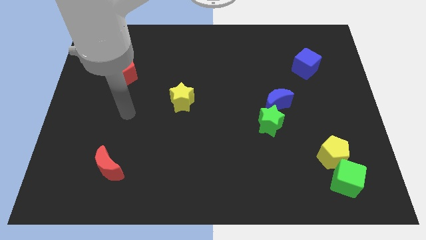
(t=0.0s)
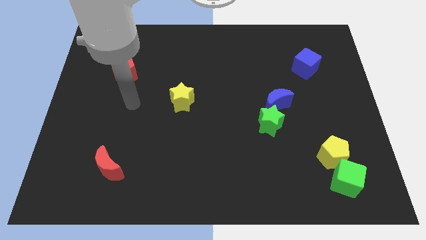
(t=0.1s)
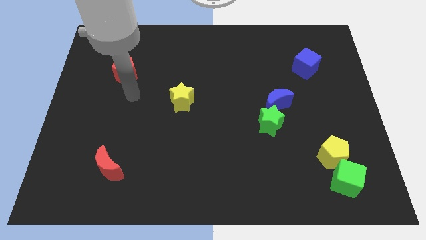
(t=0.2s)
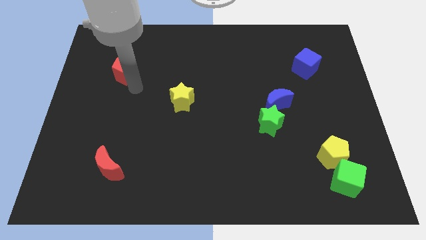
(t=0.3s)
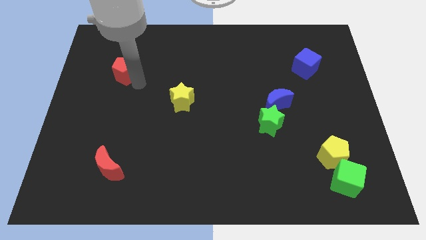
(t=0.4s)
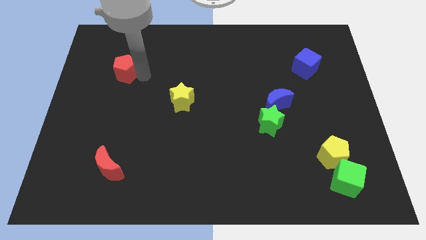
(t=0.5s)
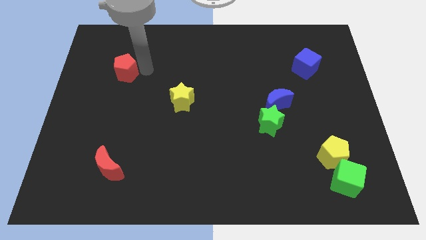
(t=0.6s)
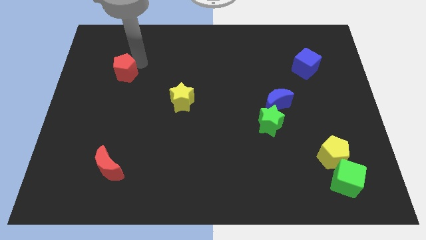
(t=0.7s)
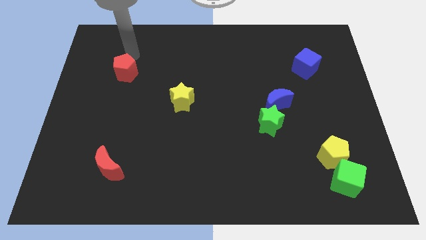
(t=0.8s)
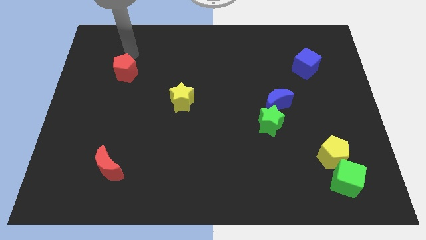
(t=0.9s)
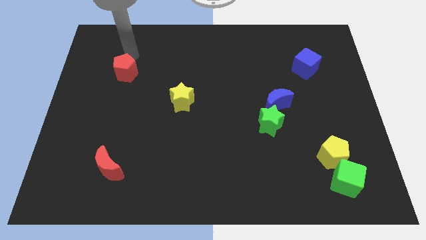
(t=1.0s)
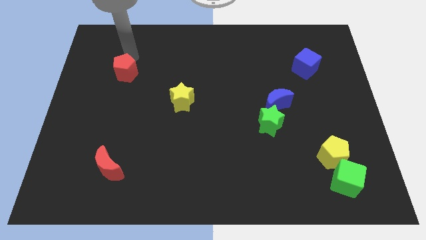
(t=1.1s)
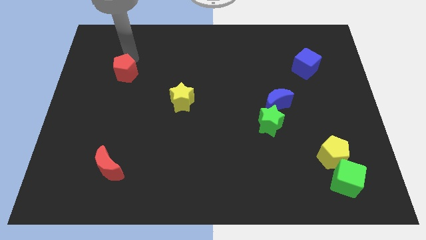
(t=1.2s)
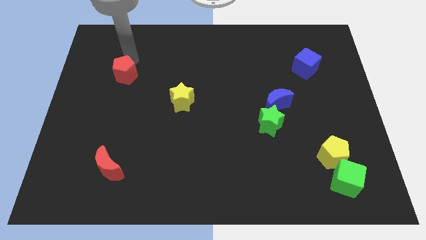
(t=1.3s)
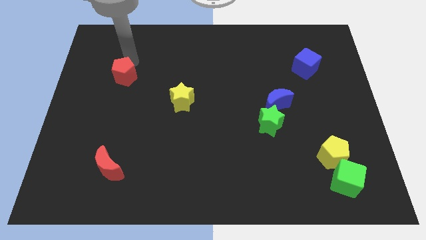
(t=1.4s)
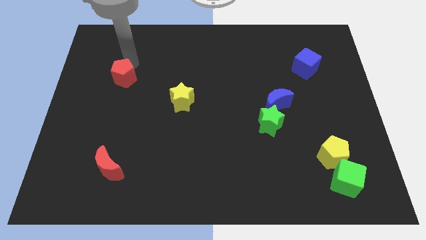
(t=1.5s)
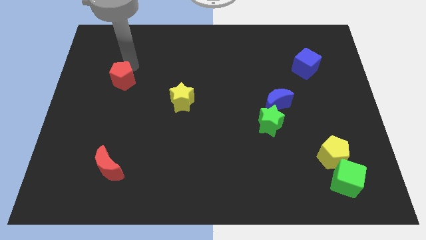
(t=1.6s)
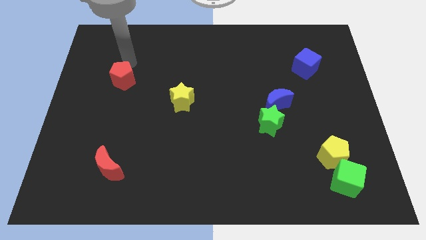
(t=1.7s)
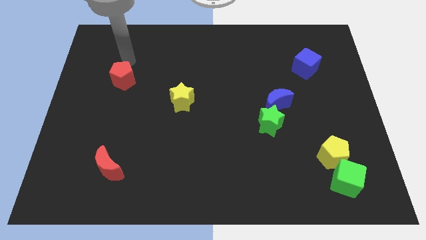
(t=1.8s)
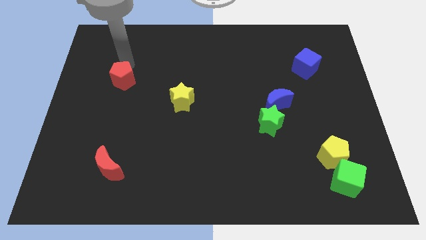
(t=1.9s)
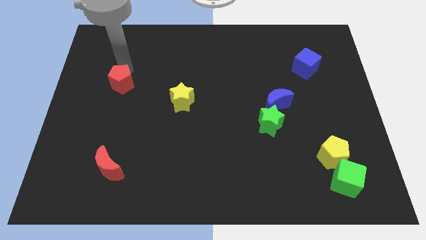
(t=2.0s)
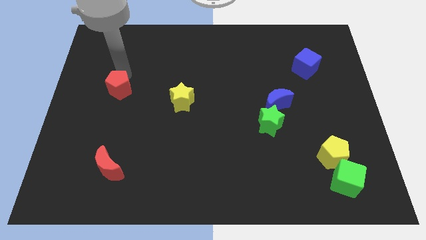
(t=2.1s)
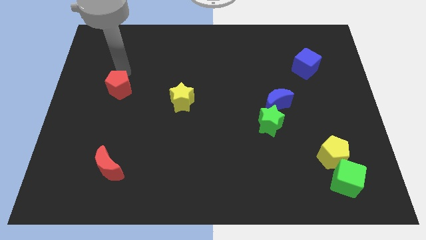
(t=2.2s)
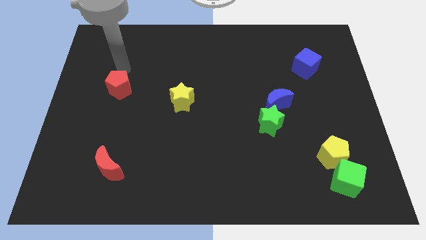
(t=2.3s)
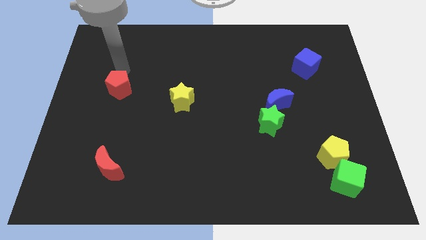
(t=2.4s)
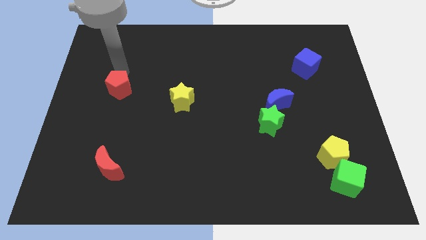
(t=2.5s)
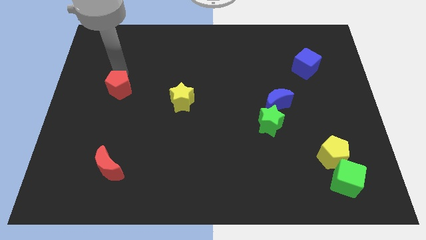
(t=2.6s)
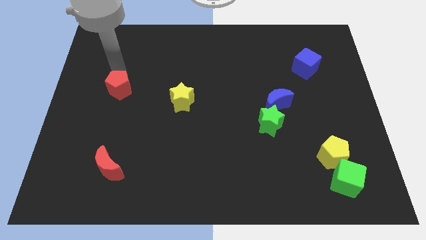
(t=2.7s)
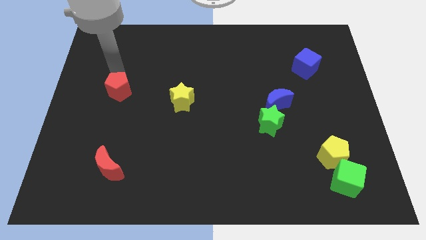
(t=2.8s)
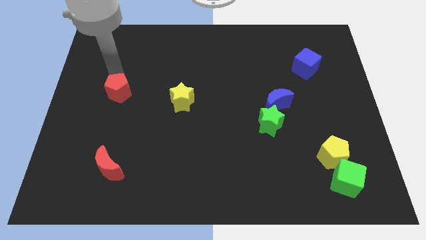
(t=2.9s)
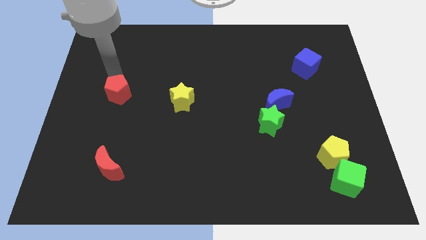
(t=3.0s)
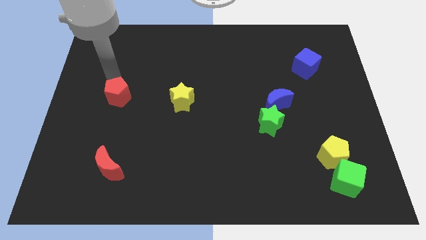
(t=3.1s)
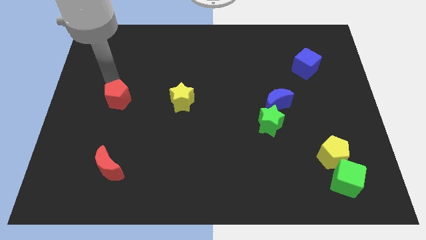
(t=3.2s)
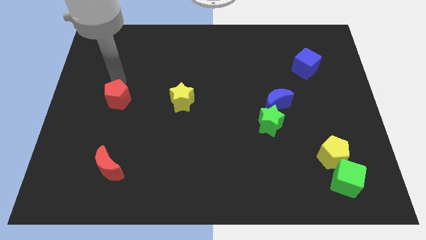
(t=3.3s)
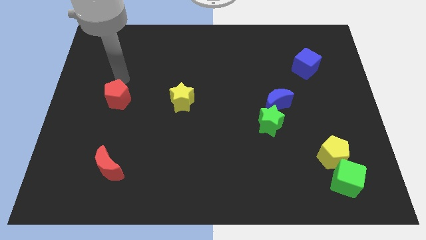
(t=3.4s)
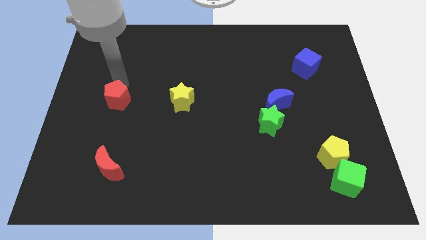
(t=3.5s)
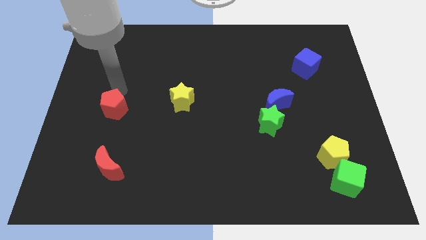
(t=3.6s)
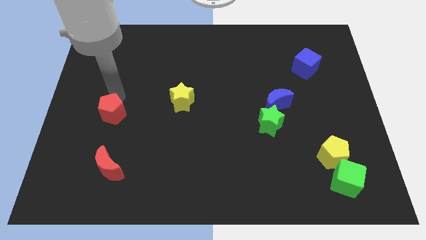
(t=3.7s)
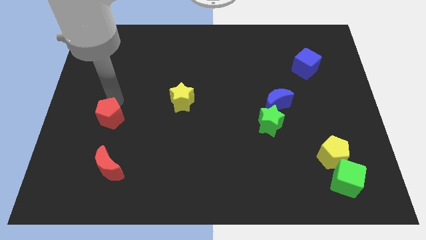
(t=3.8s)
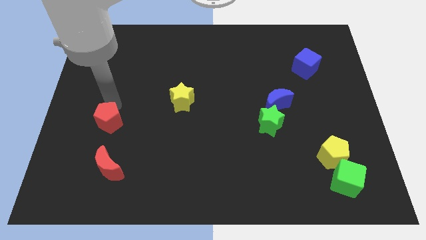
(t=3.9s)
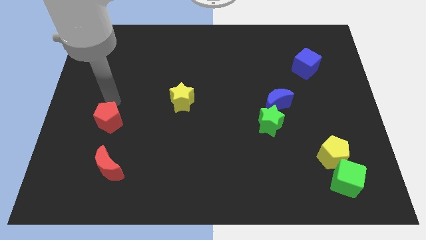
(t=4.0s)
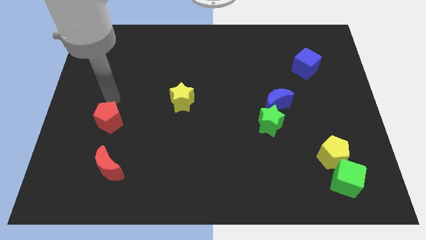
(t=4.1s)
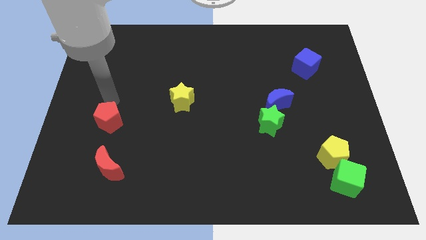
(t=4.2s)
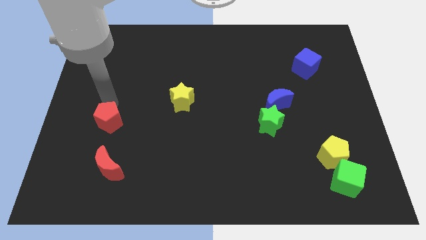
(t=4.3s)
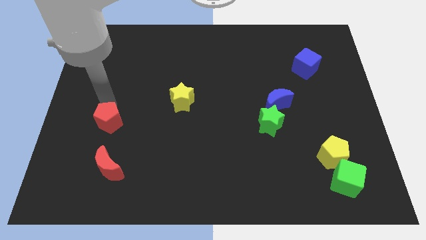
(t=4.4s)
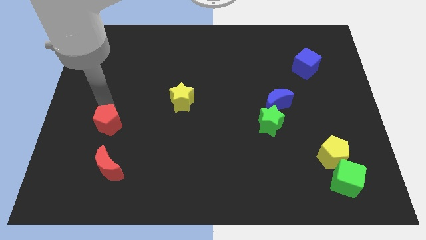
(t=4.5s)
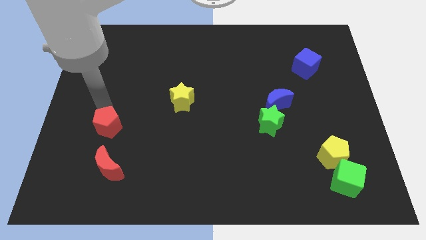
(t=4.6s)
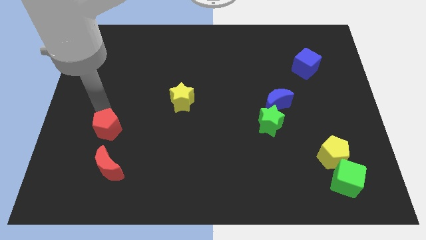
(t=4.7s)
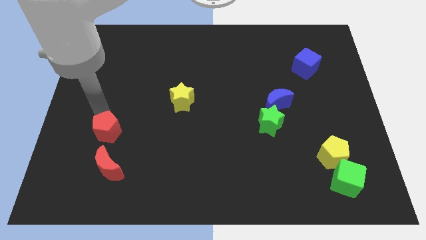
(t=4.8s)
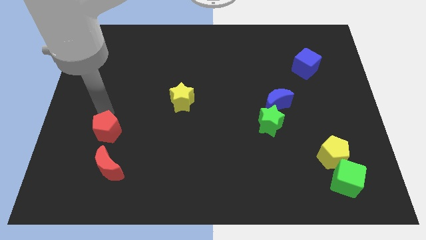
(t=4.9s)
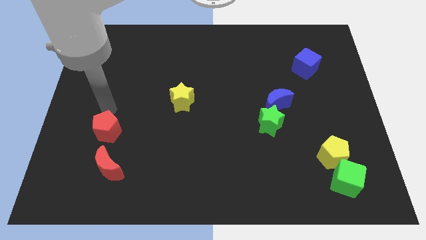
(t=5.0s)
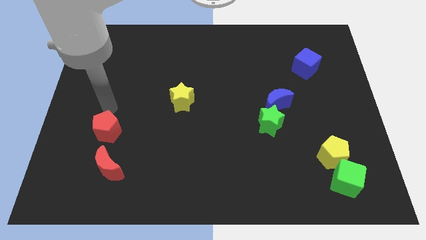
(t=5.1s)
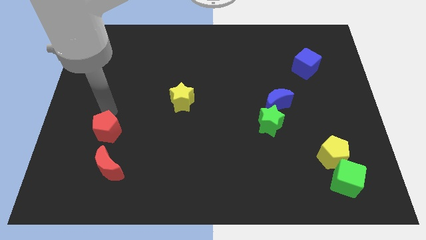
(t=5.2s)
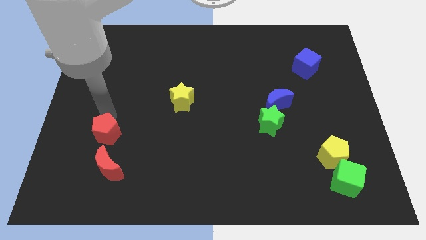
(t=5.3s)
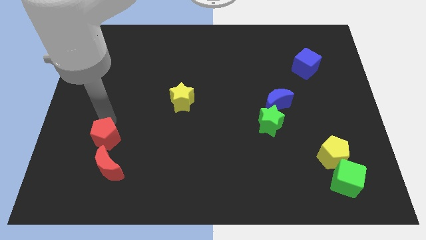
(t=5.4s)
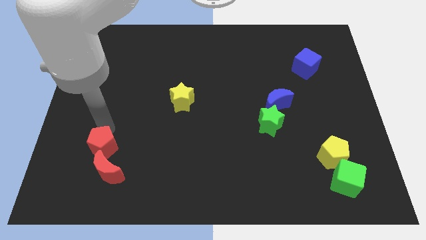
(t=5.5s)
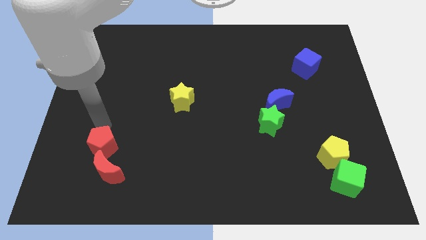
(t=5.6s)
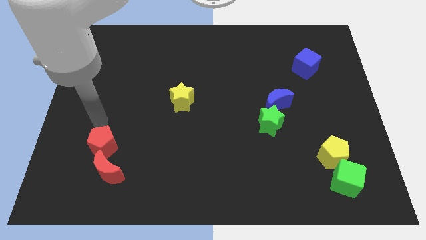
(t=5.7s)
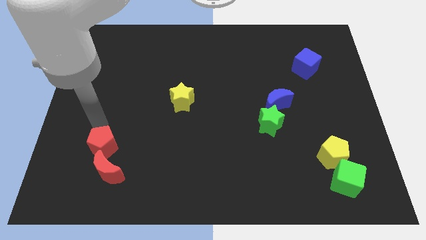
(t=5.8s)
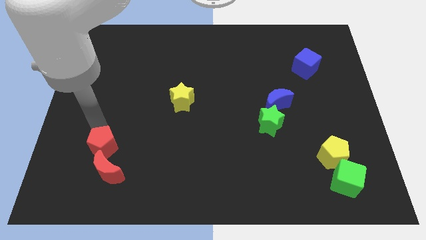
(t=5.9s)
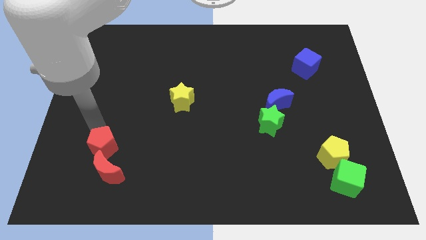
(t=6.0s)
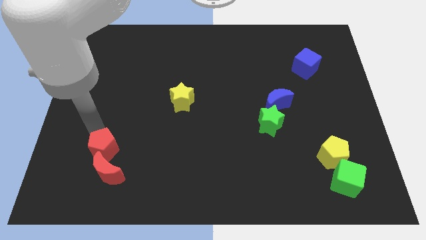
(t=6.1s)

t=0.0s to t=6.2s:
slide the red pentagon close to the red moon

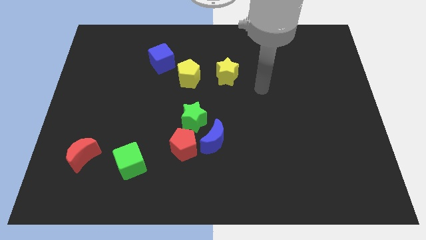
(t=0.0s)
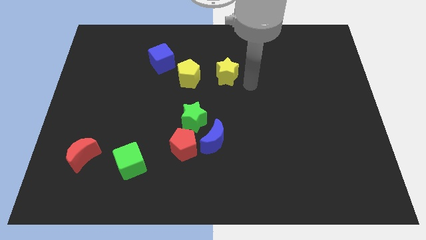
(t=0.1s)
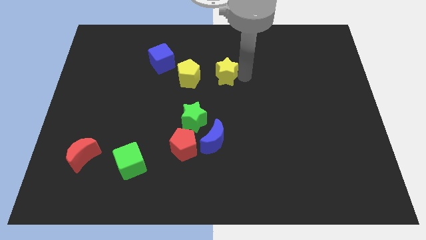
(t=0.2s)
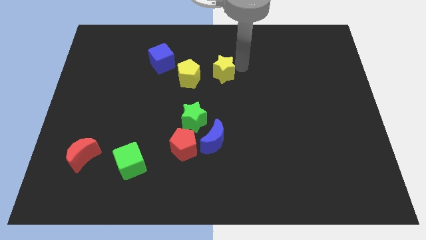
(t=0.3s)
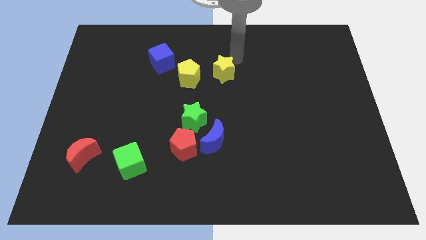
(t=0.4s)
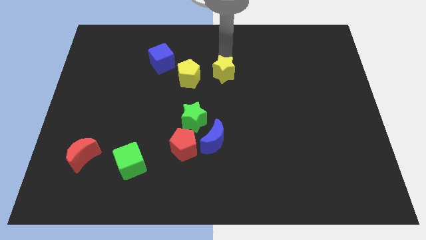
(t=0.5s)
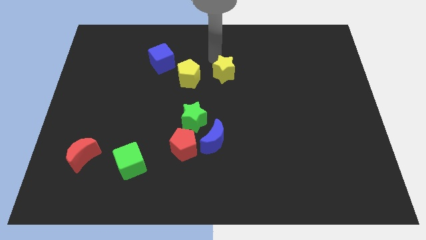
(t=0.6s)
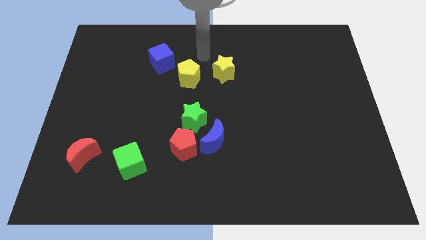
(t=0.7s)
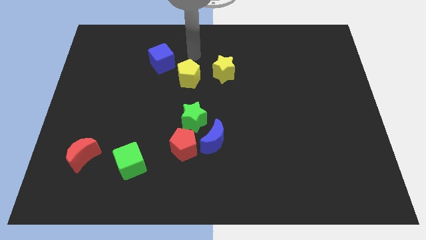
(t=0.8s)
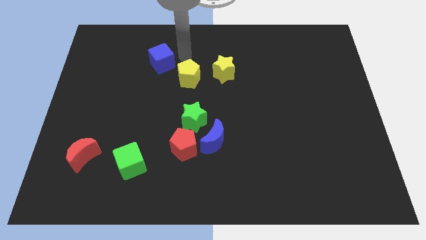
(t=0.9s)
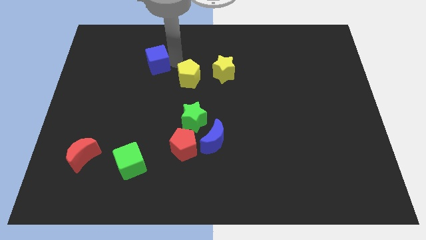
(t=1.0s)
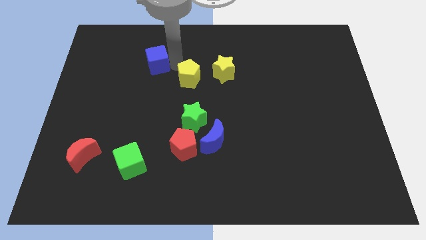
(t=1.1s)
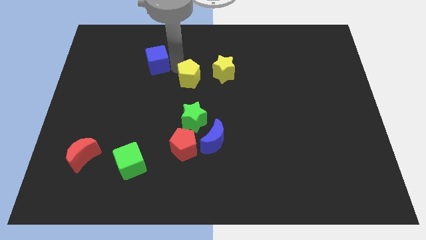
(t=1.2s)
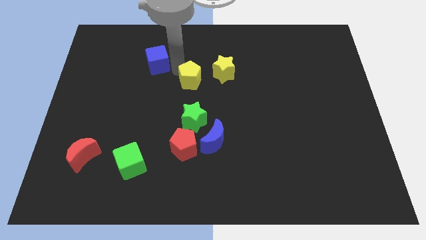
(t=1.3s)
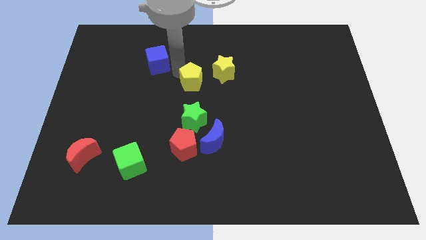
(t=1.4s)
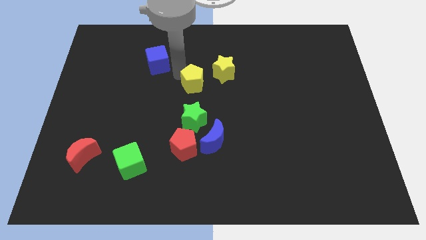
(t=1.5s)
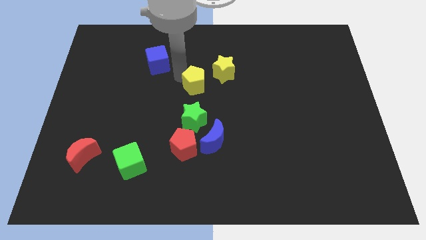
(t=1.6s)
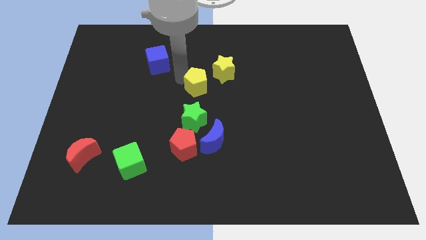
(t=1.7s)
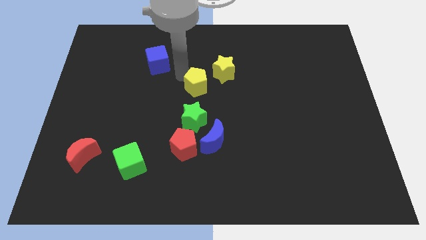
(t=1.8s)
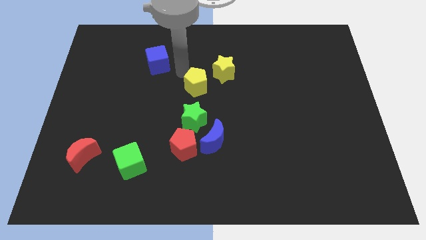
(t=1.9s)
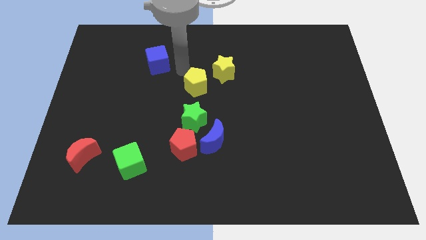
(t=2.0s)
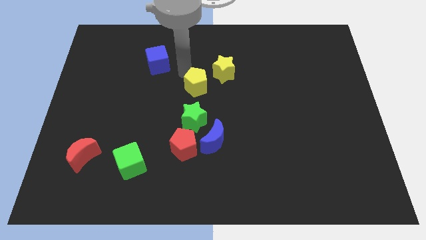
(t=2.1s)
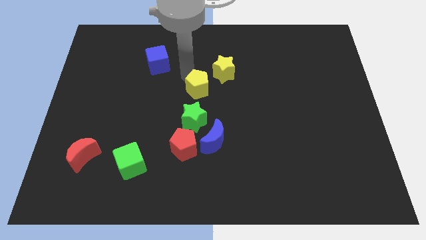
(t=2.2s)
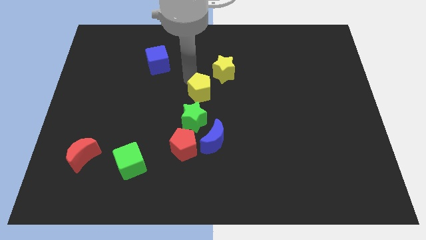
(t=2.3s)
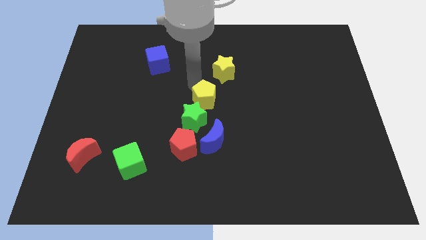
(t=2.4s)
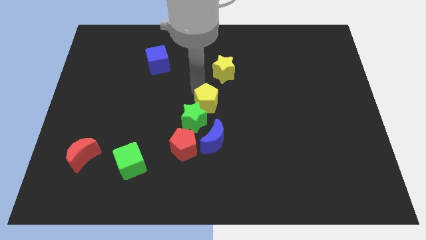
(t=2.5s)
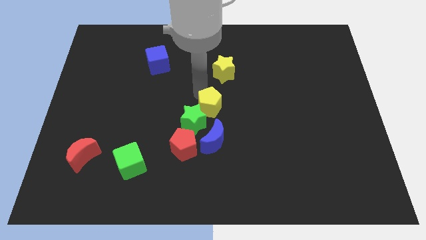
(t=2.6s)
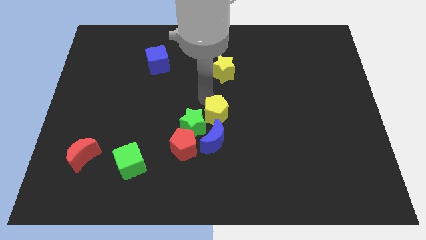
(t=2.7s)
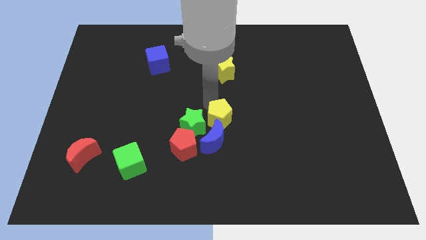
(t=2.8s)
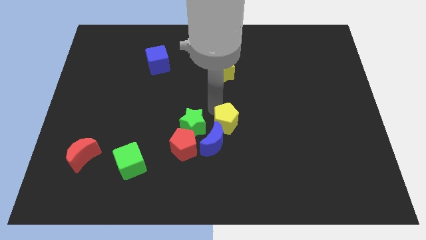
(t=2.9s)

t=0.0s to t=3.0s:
slide the yellow pentagon close to the blue moon
